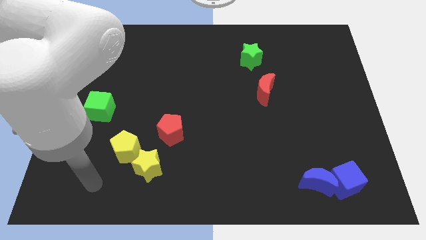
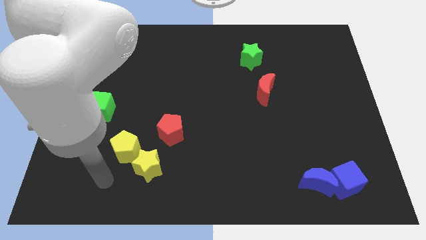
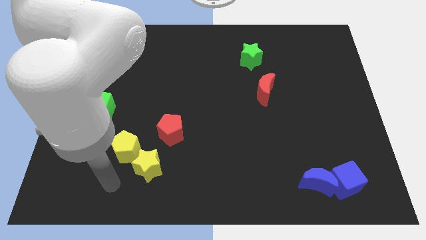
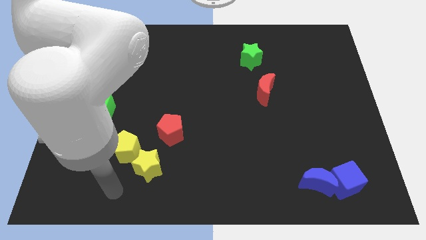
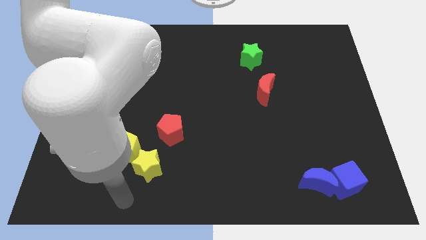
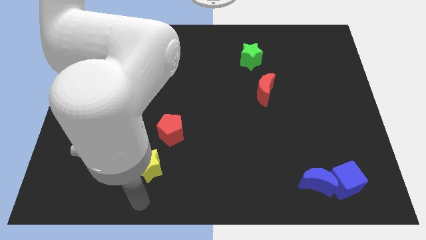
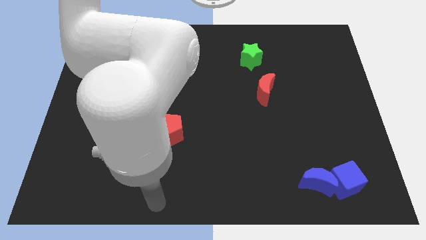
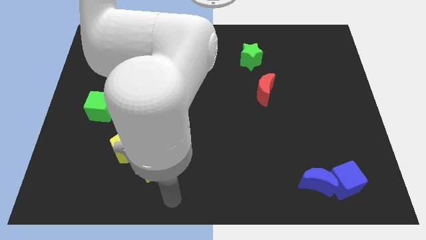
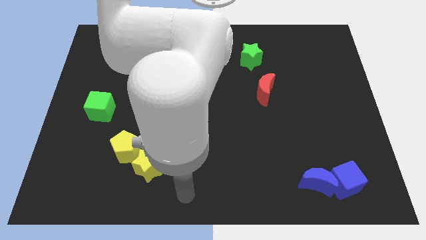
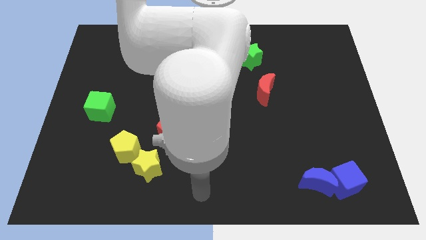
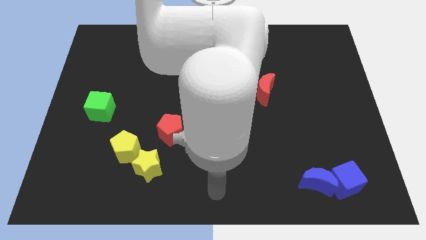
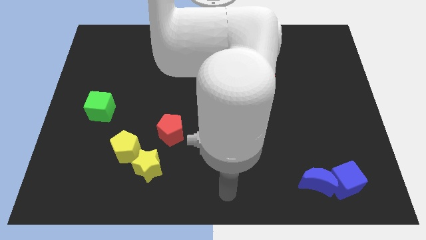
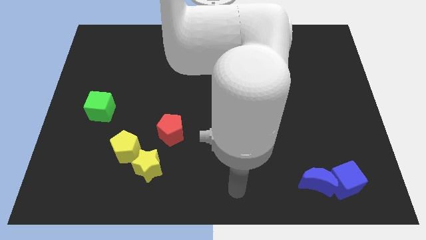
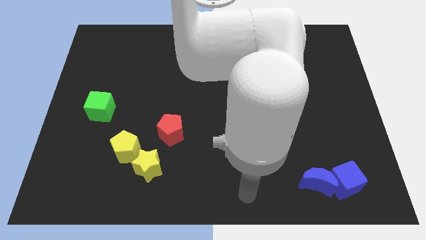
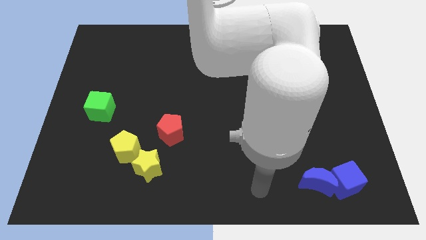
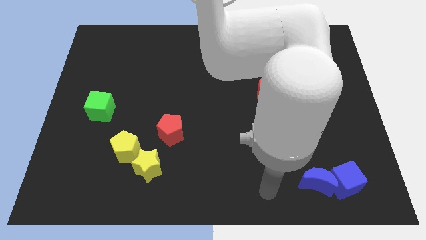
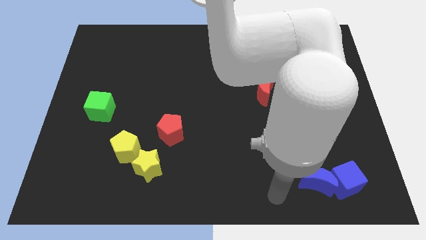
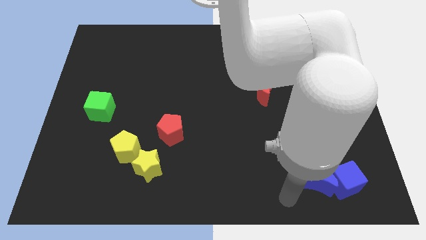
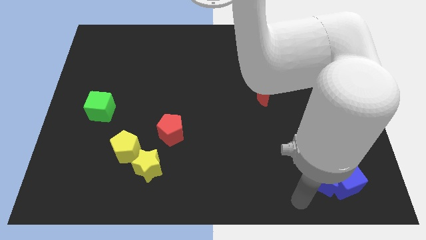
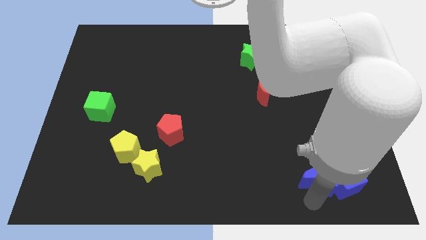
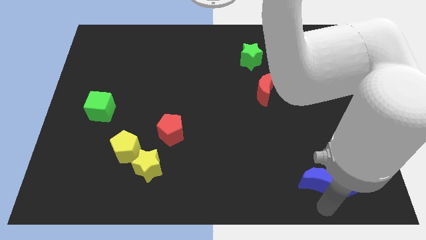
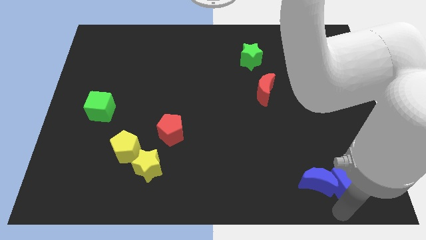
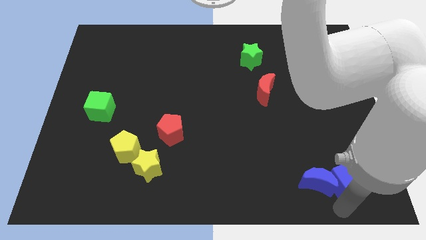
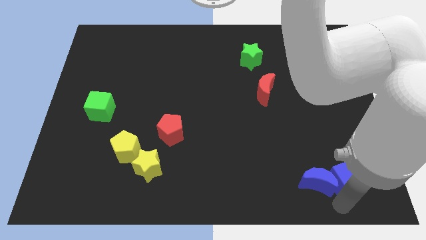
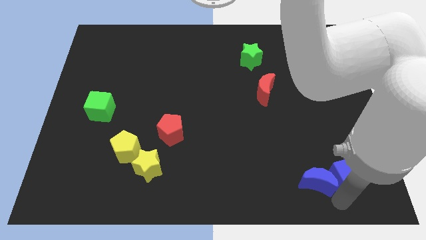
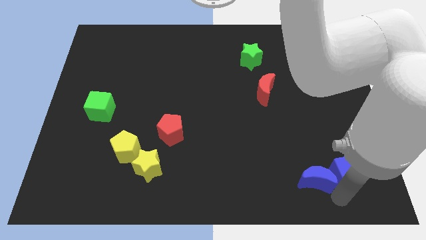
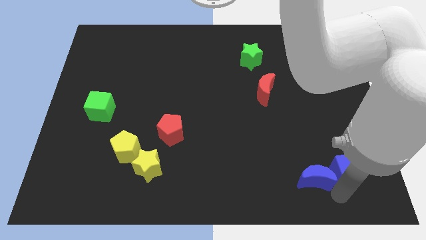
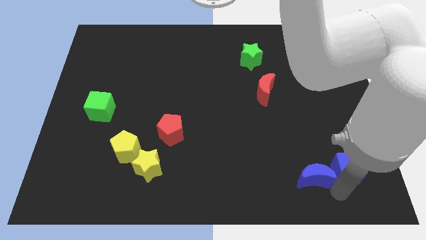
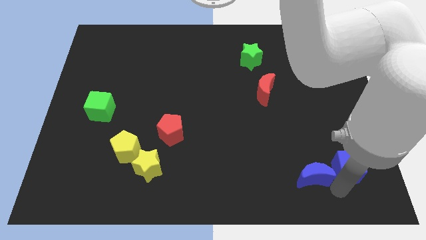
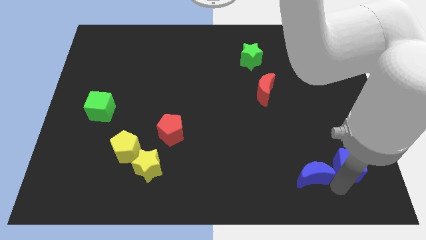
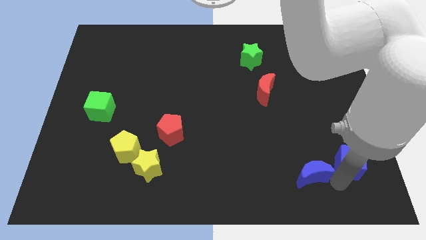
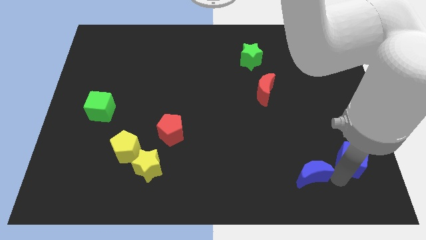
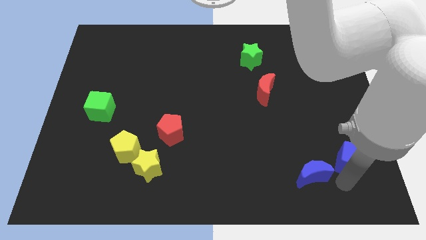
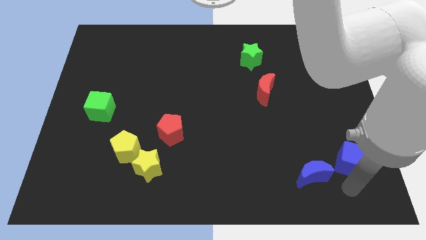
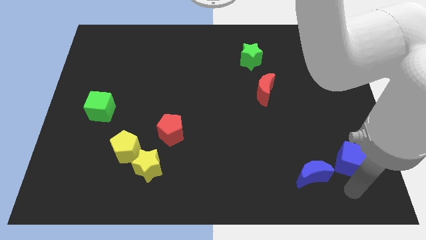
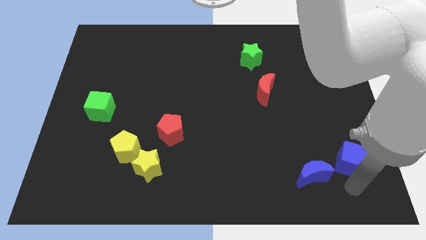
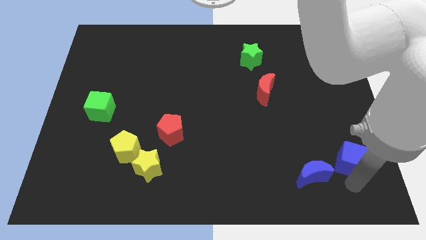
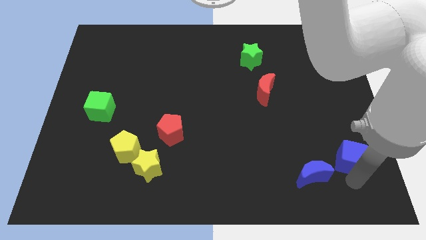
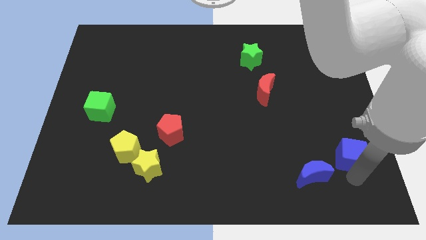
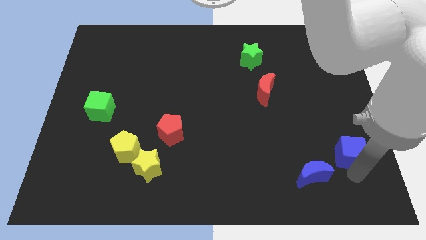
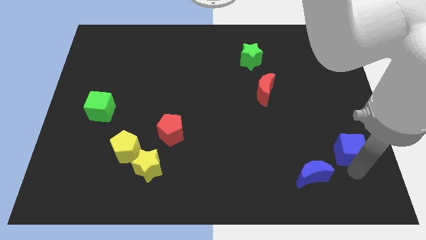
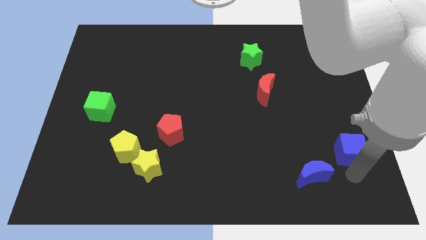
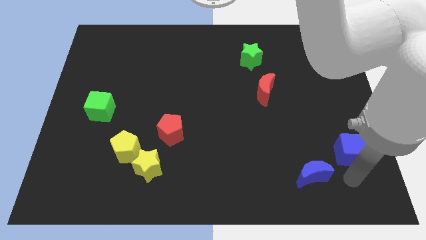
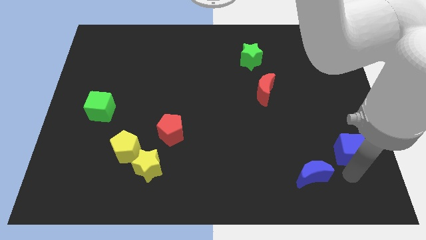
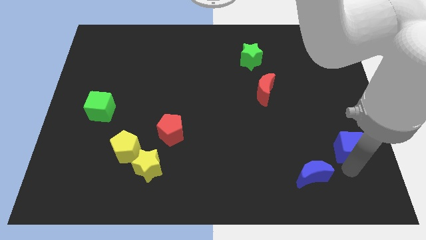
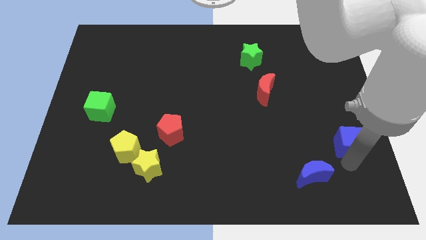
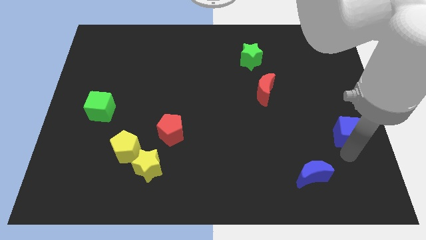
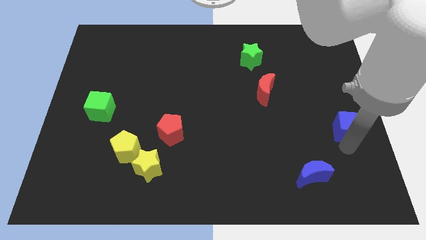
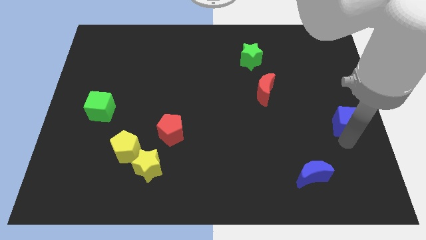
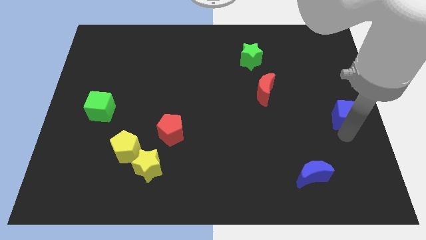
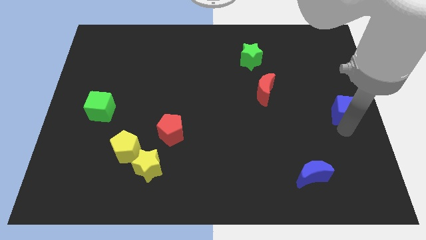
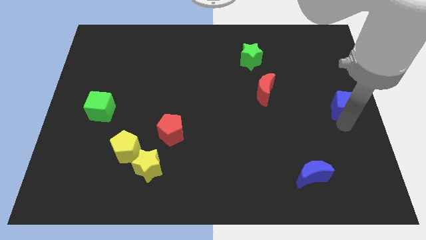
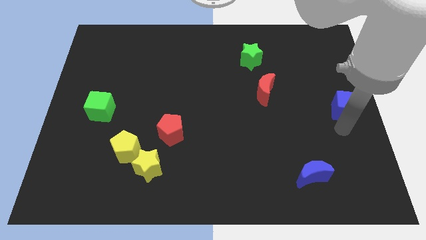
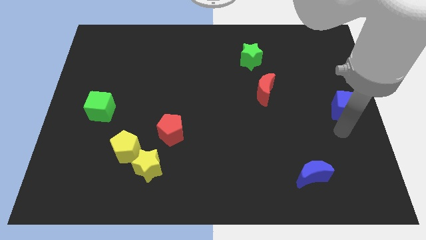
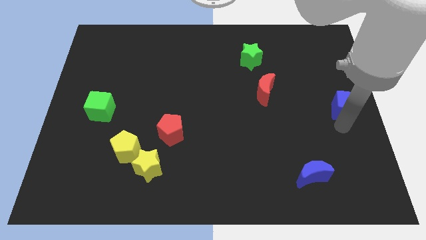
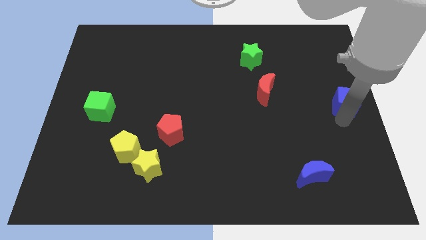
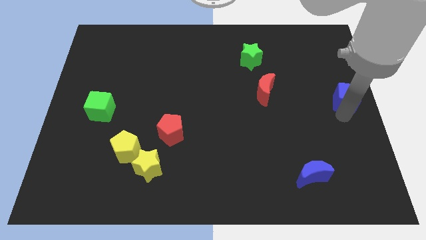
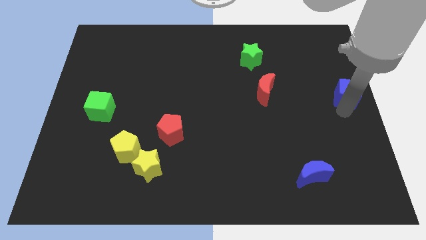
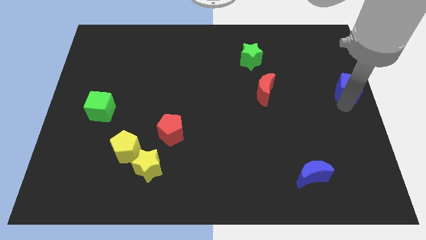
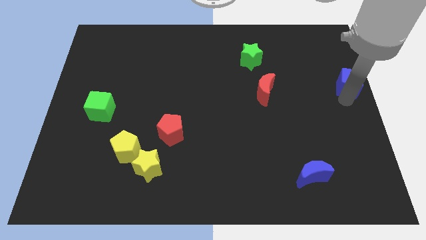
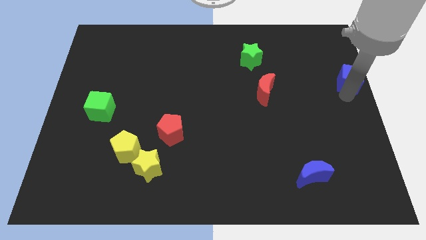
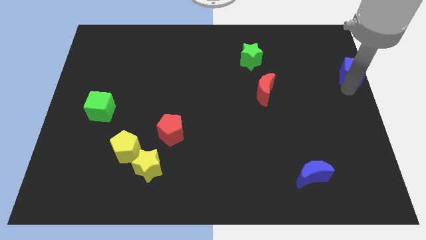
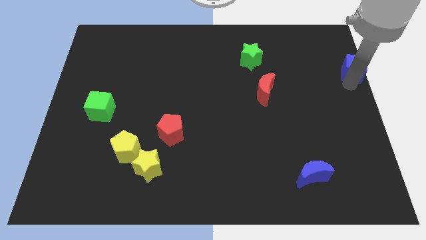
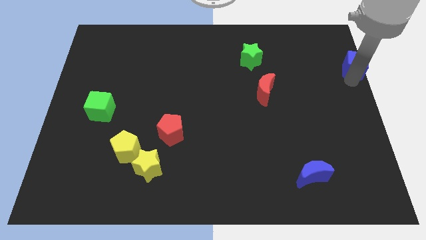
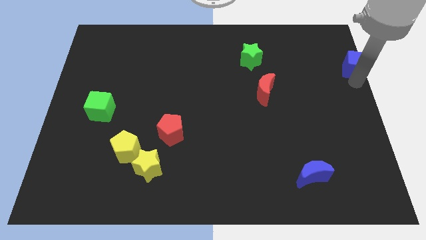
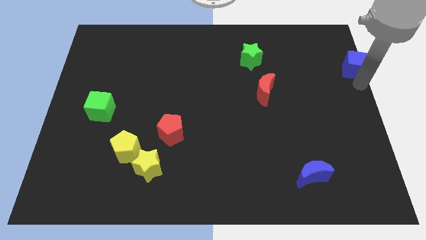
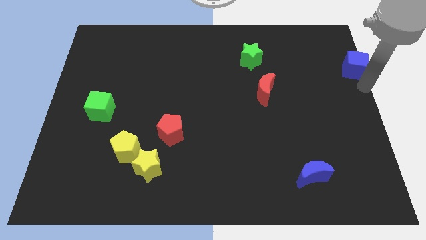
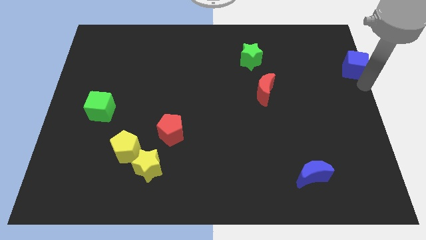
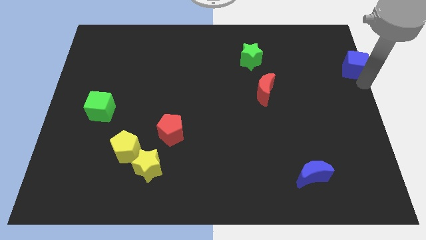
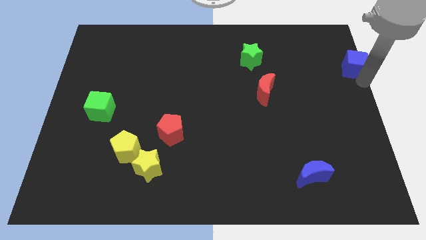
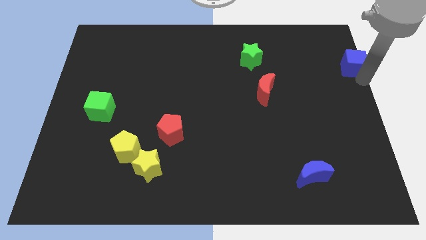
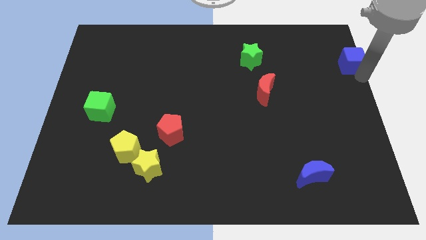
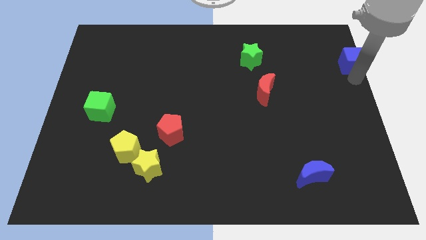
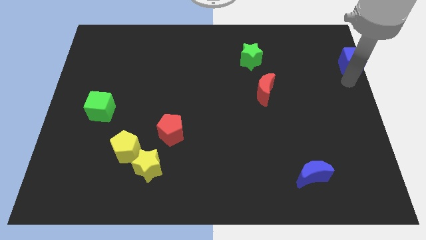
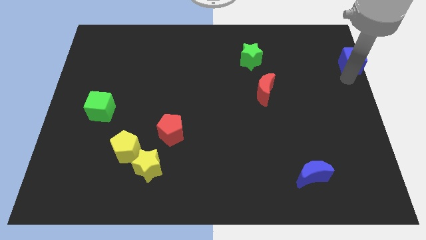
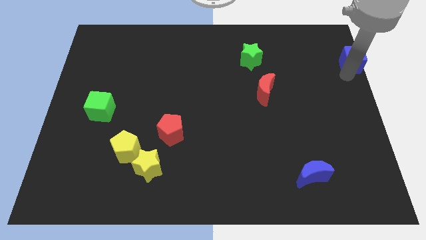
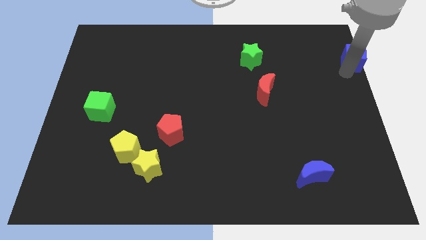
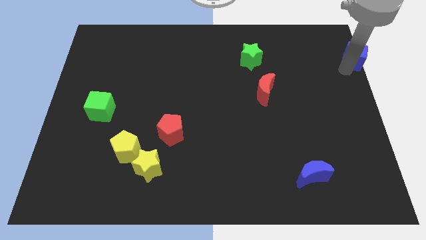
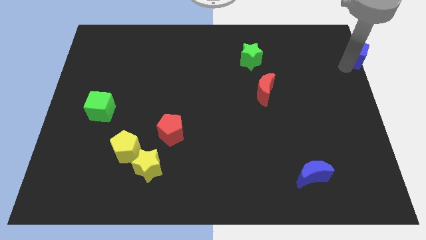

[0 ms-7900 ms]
put the blue cube to the top right of the board
